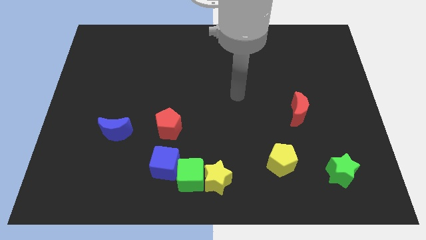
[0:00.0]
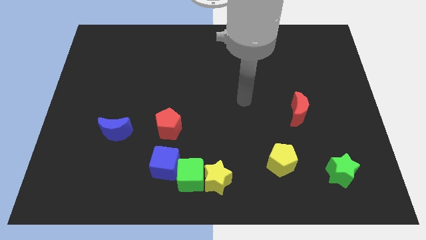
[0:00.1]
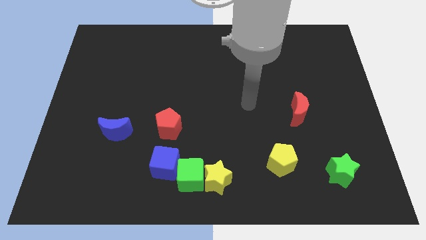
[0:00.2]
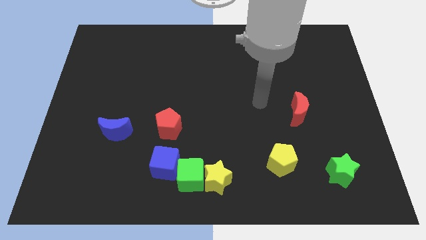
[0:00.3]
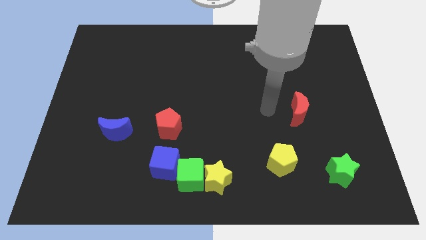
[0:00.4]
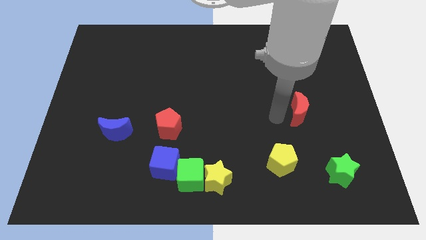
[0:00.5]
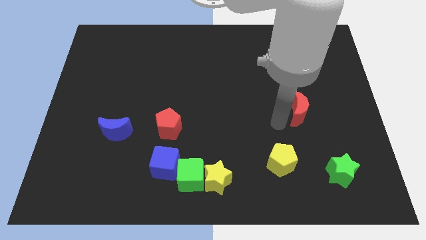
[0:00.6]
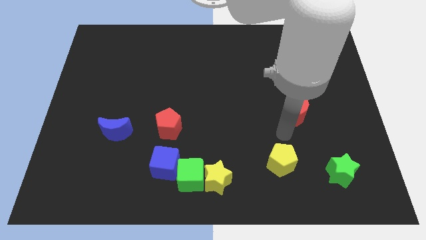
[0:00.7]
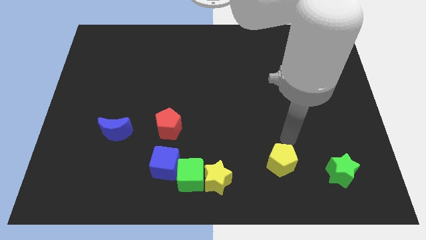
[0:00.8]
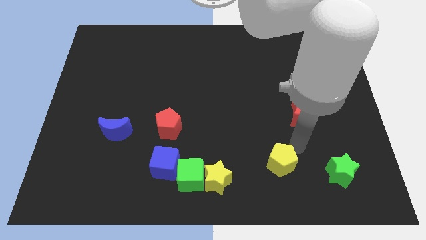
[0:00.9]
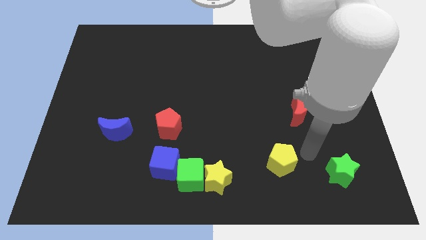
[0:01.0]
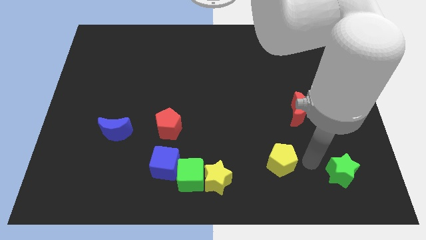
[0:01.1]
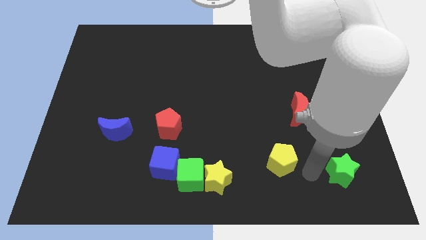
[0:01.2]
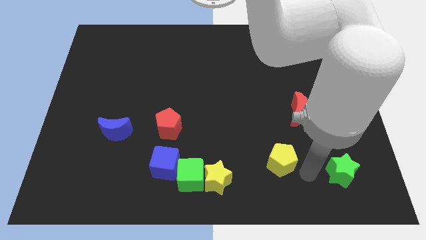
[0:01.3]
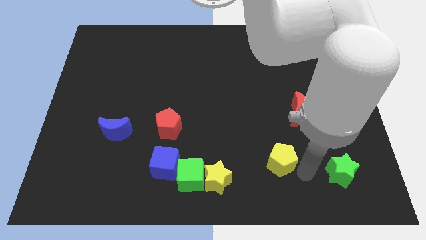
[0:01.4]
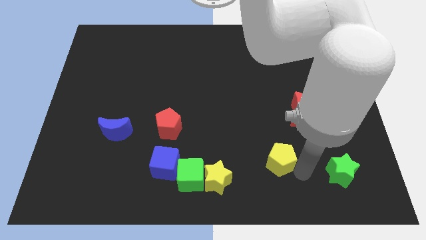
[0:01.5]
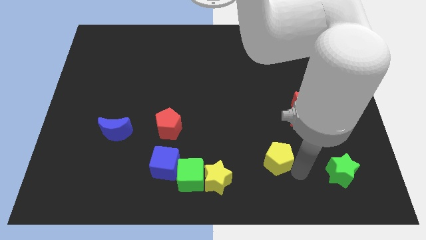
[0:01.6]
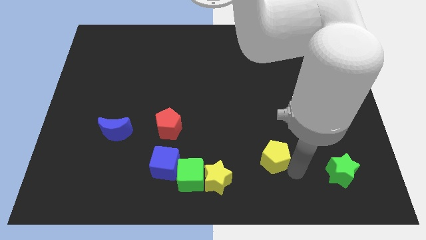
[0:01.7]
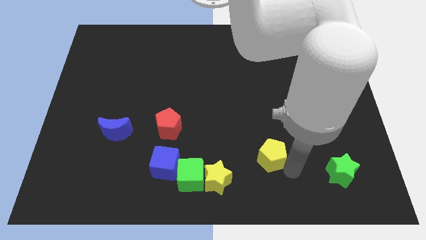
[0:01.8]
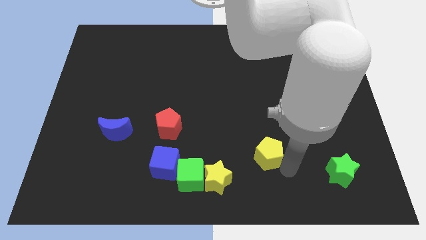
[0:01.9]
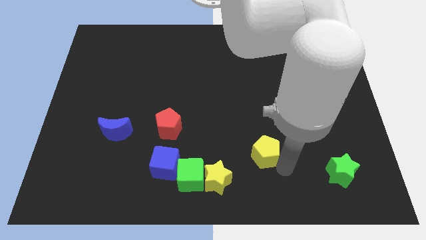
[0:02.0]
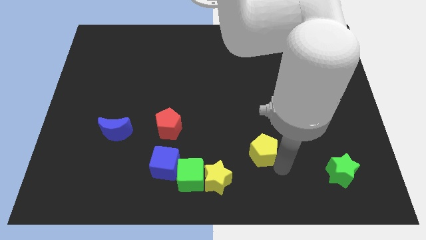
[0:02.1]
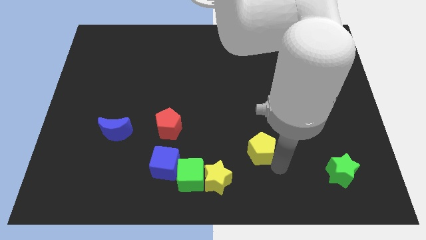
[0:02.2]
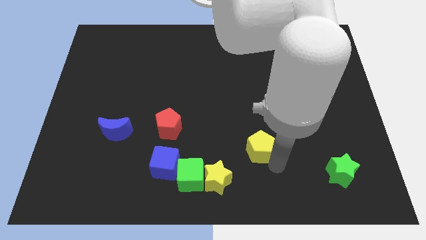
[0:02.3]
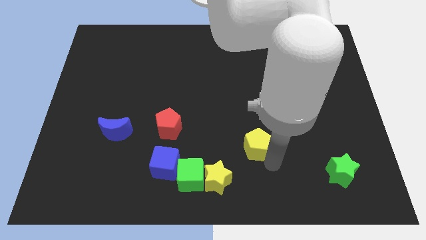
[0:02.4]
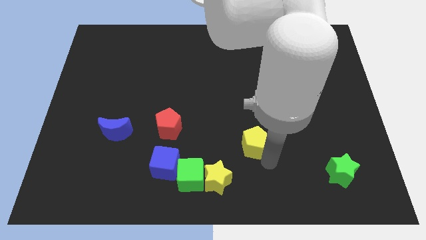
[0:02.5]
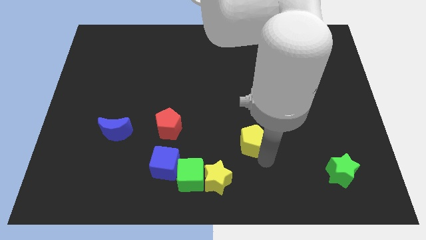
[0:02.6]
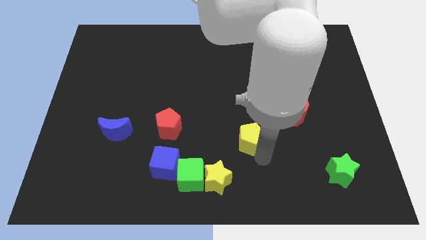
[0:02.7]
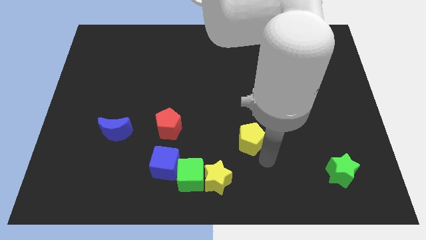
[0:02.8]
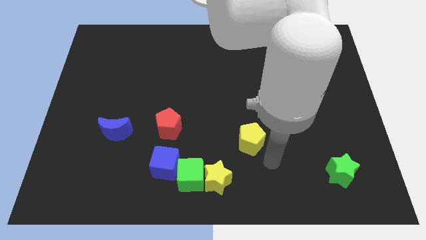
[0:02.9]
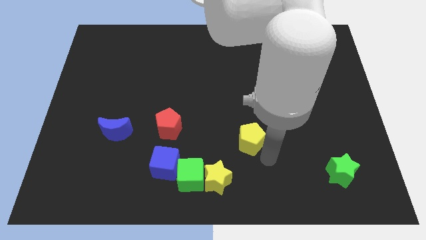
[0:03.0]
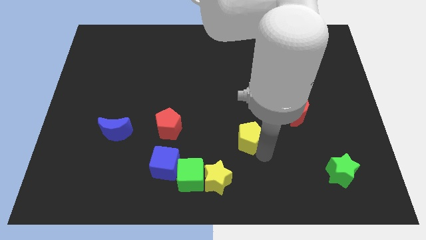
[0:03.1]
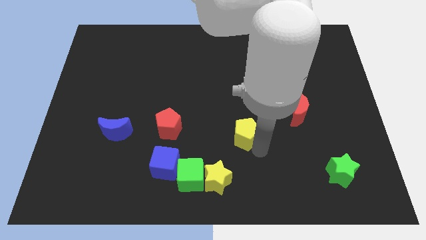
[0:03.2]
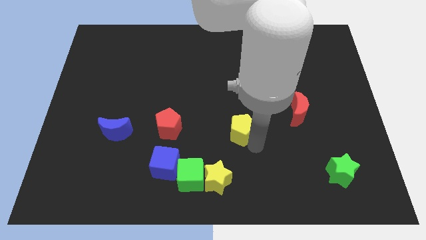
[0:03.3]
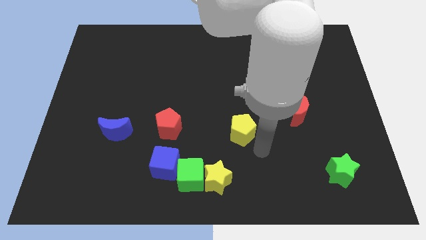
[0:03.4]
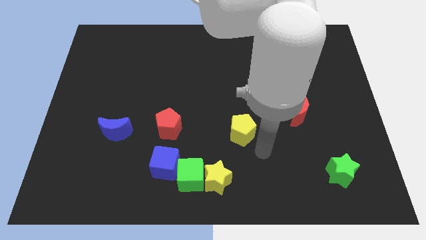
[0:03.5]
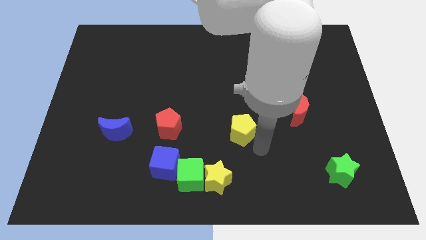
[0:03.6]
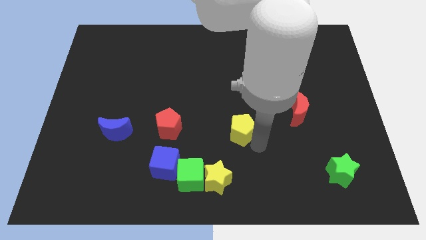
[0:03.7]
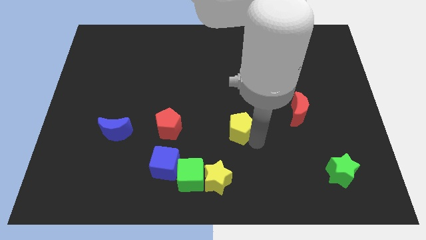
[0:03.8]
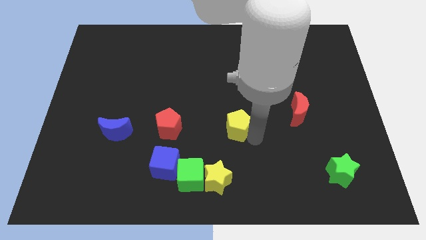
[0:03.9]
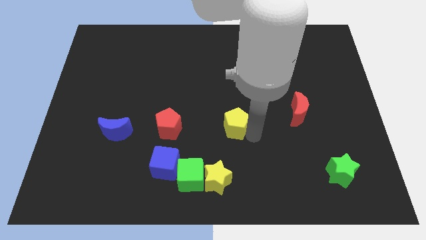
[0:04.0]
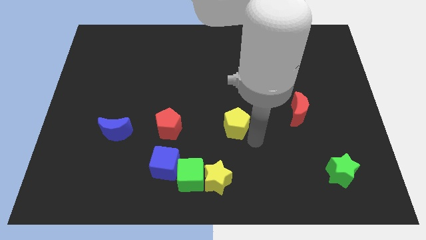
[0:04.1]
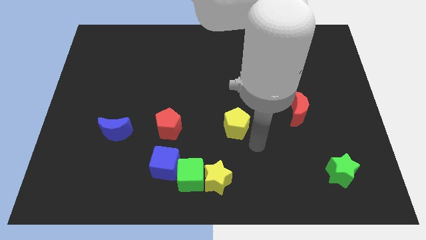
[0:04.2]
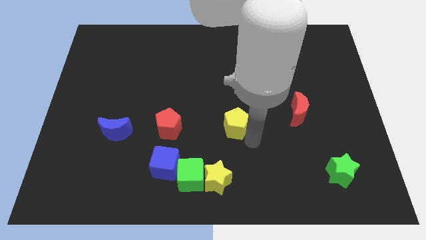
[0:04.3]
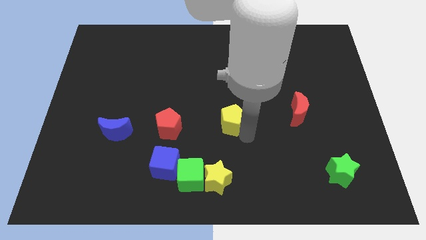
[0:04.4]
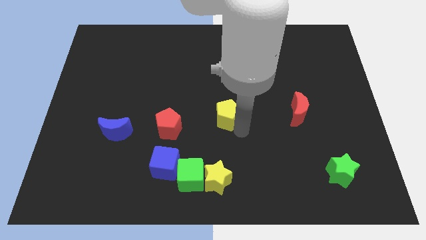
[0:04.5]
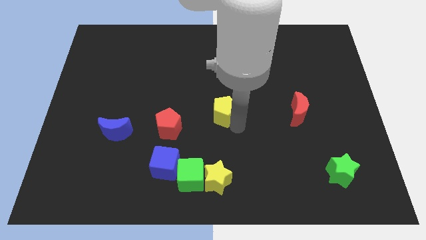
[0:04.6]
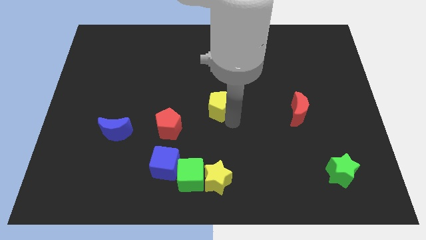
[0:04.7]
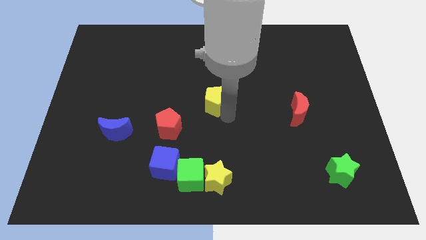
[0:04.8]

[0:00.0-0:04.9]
push the yellow pentagon up and left diagonally

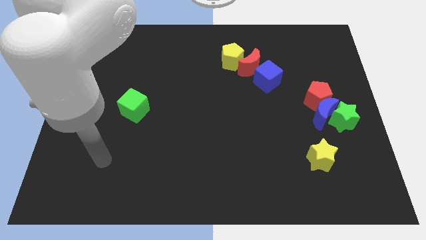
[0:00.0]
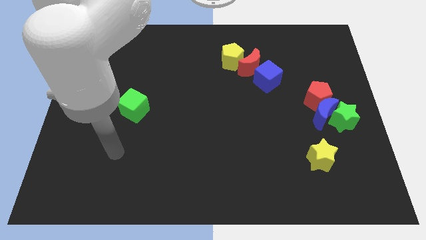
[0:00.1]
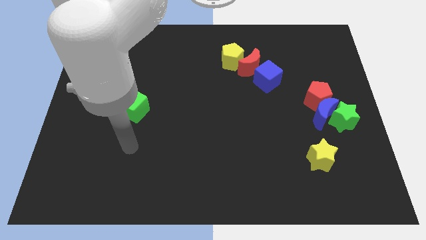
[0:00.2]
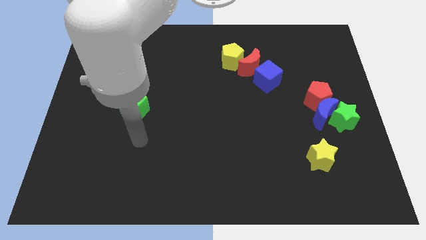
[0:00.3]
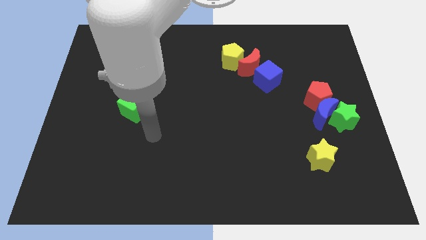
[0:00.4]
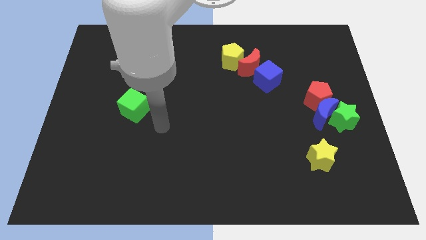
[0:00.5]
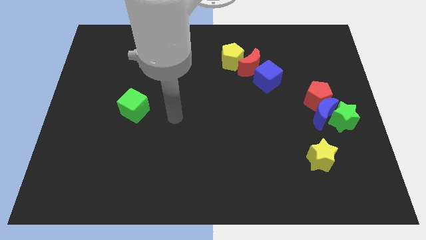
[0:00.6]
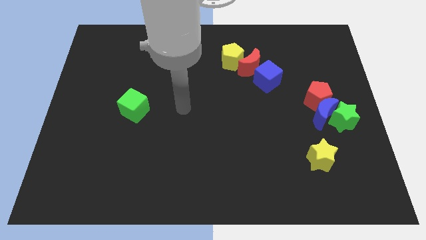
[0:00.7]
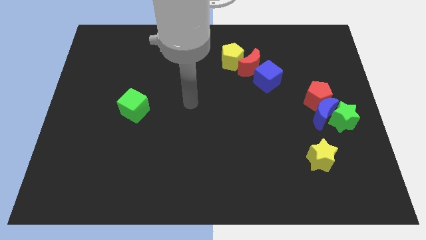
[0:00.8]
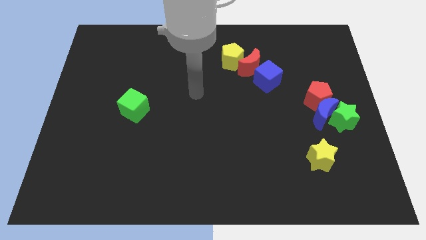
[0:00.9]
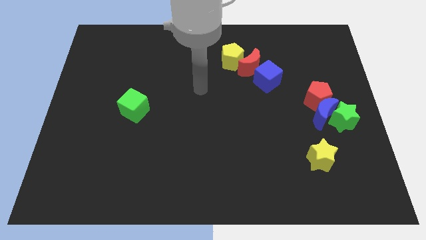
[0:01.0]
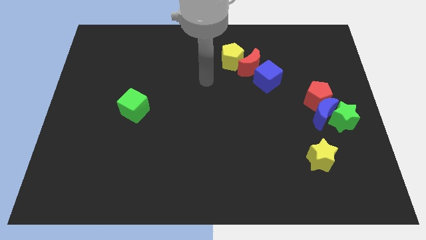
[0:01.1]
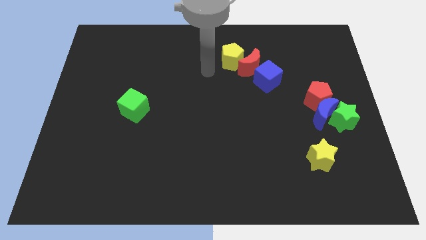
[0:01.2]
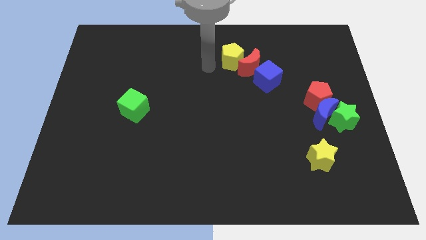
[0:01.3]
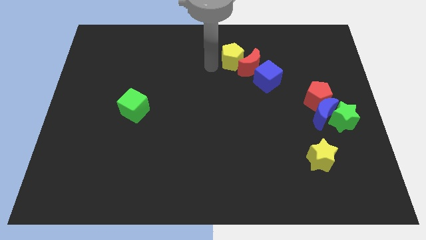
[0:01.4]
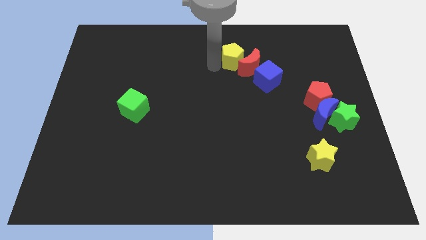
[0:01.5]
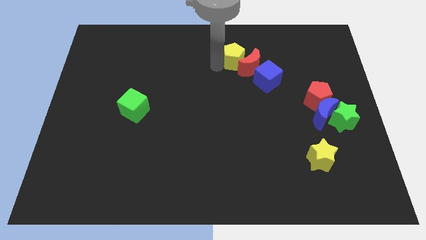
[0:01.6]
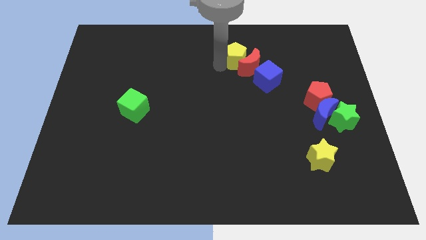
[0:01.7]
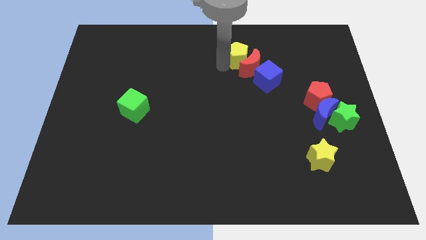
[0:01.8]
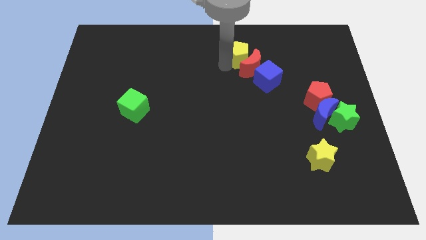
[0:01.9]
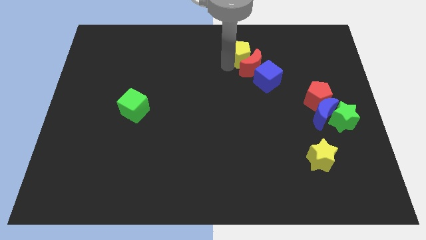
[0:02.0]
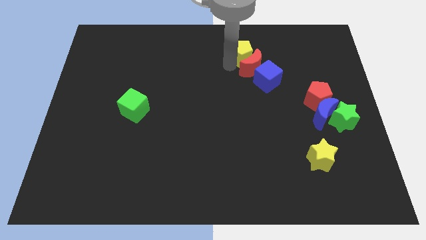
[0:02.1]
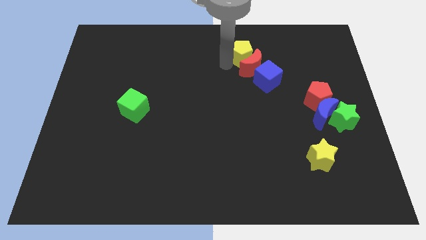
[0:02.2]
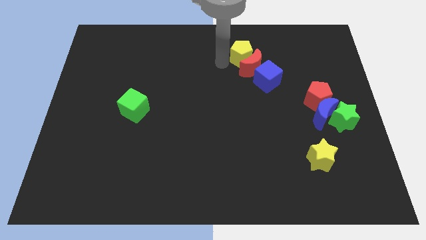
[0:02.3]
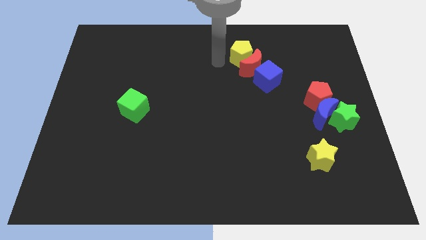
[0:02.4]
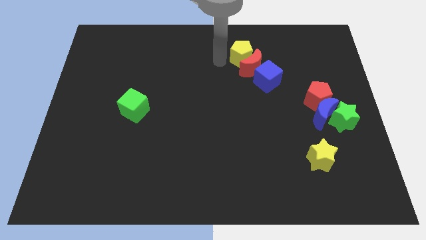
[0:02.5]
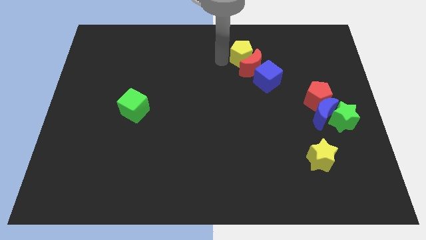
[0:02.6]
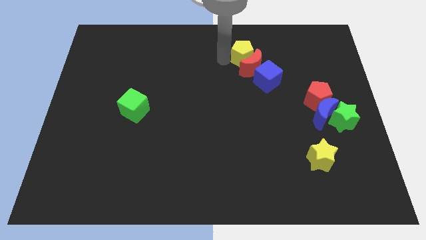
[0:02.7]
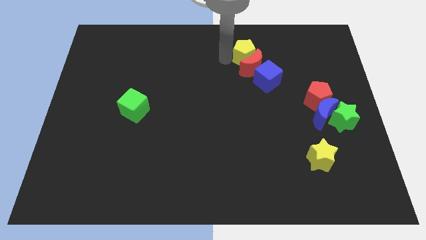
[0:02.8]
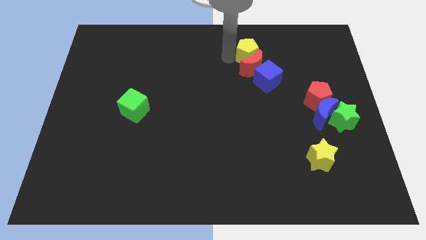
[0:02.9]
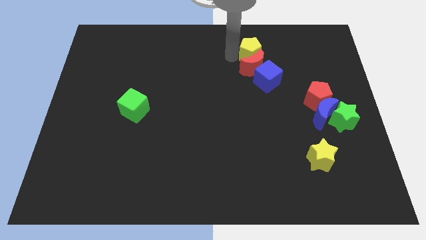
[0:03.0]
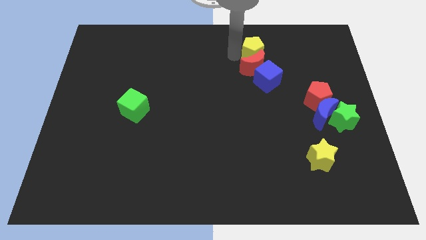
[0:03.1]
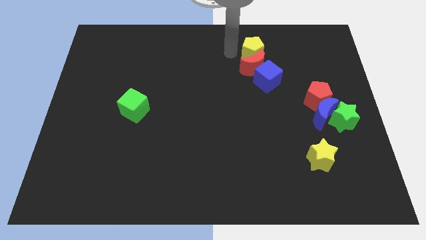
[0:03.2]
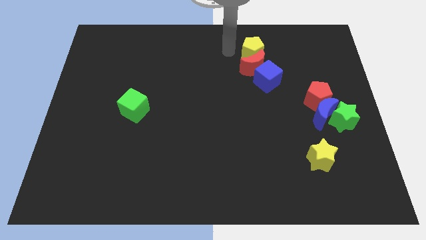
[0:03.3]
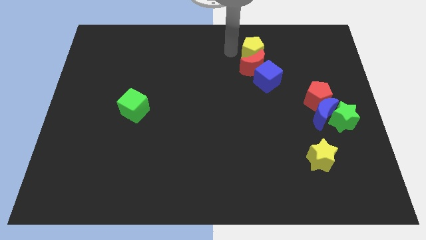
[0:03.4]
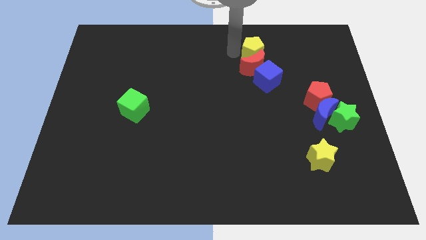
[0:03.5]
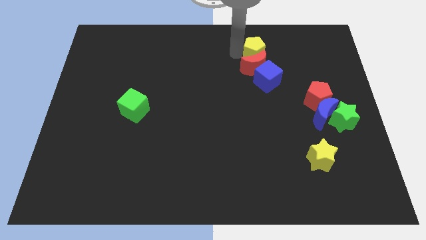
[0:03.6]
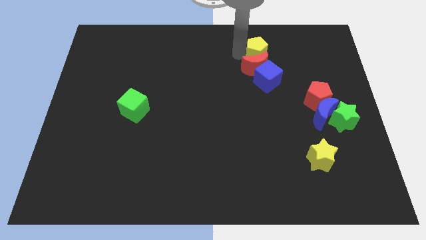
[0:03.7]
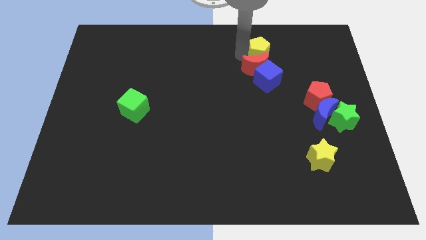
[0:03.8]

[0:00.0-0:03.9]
move the yellow pentagon somewhat to the right
